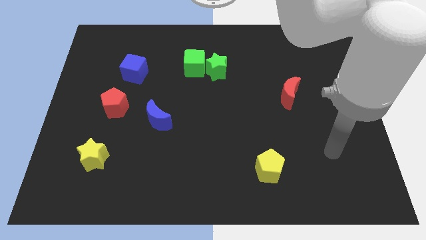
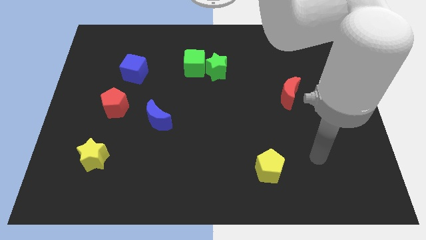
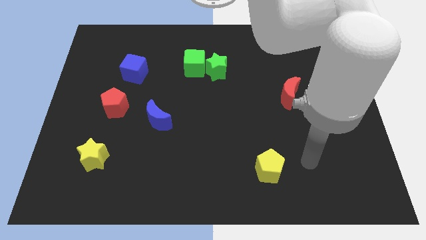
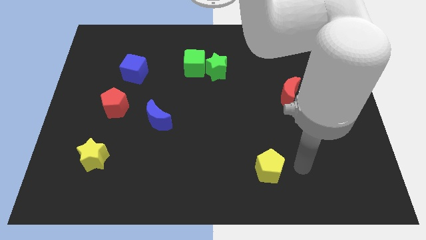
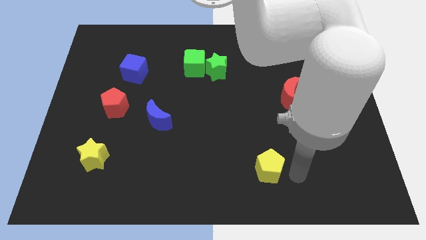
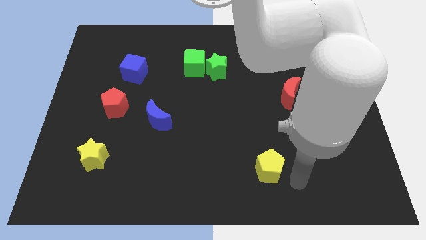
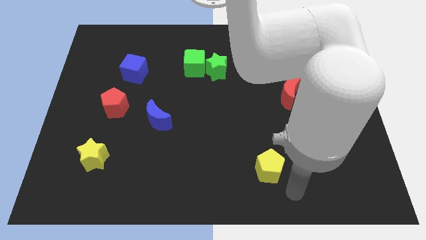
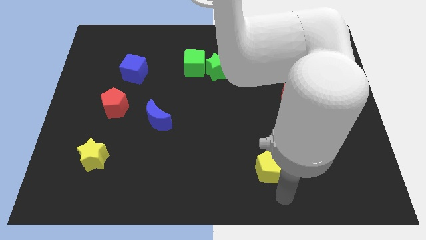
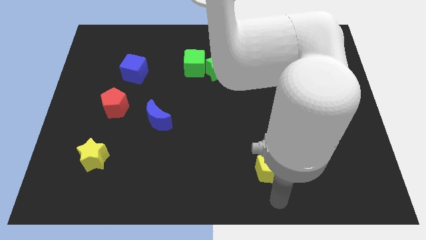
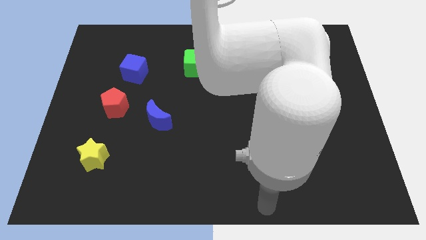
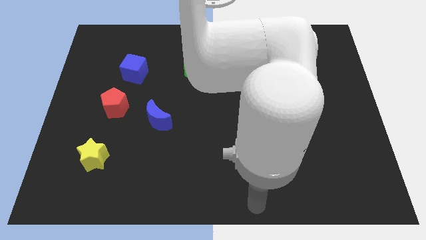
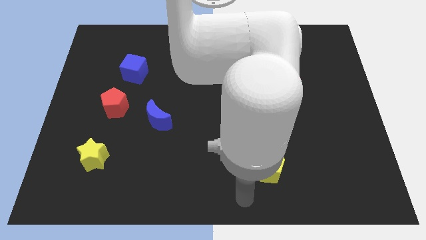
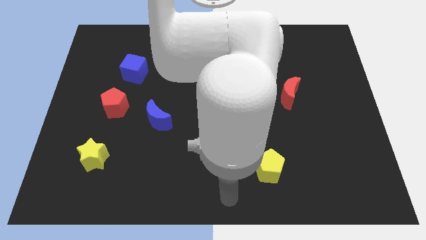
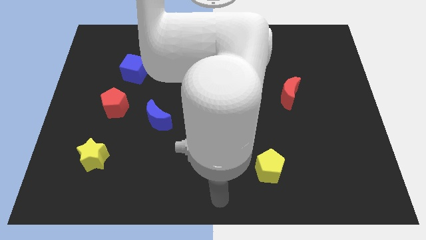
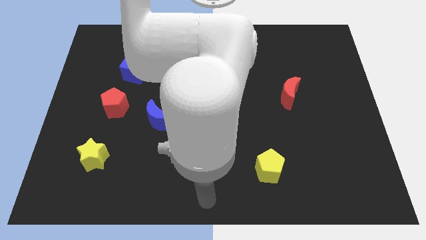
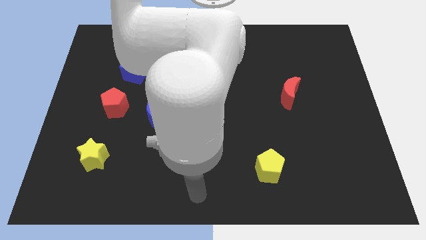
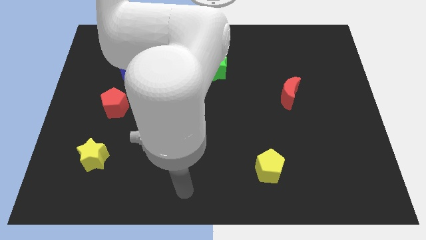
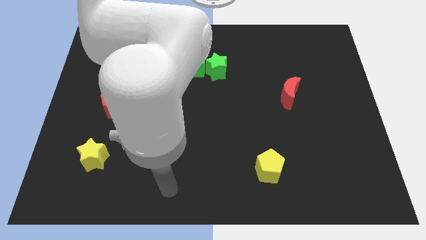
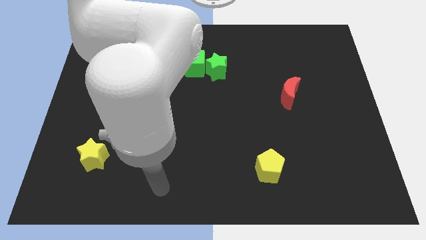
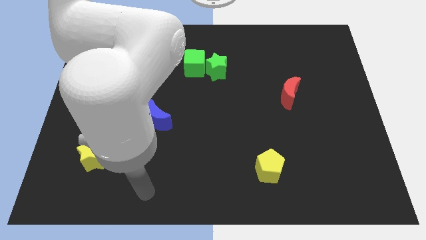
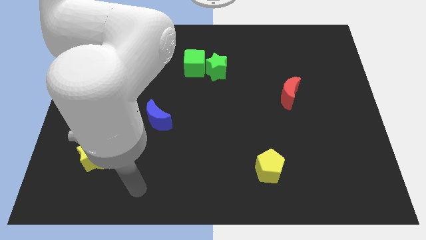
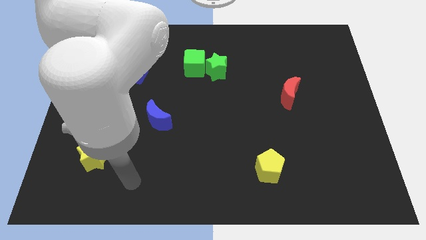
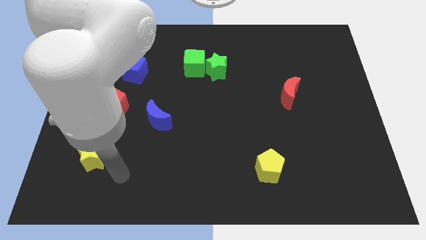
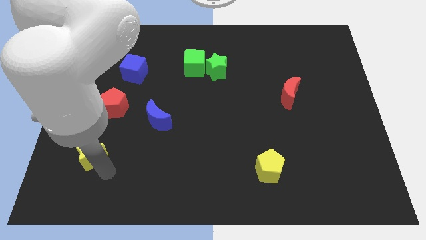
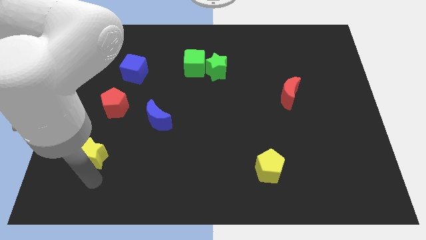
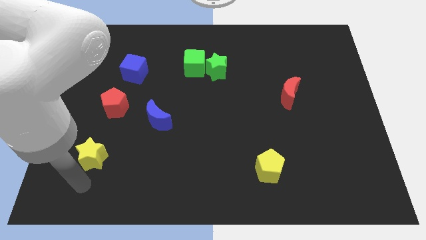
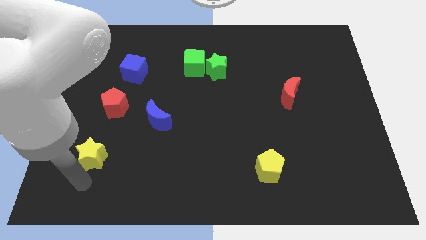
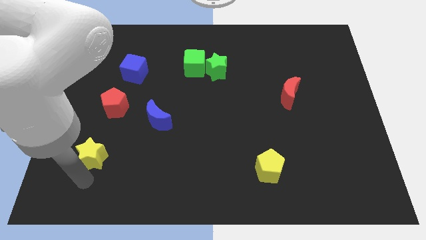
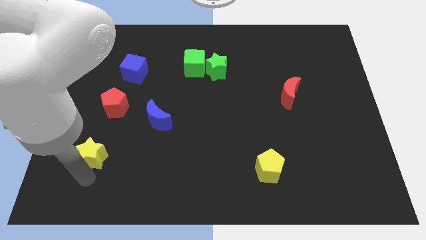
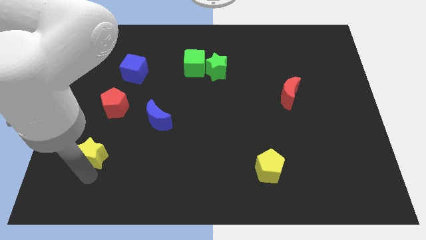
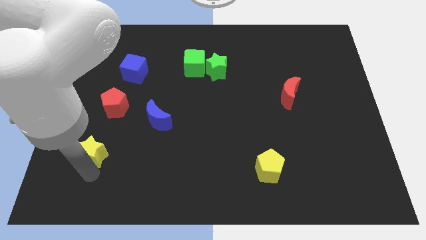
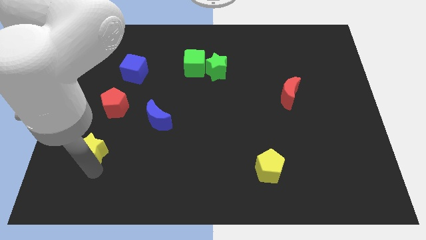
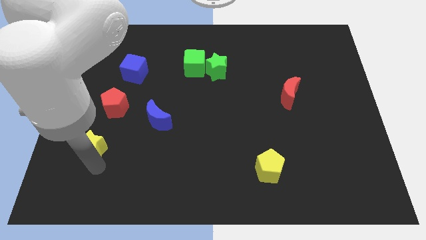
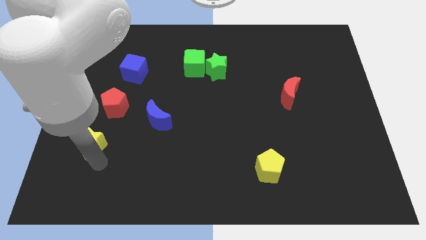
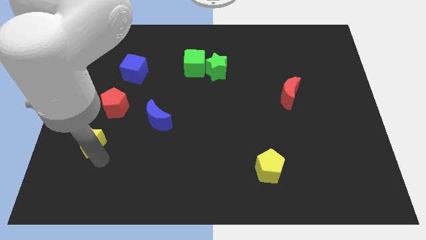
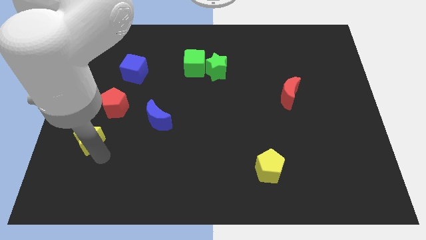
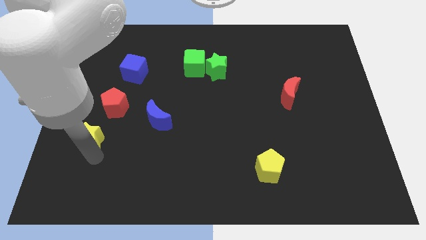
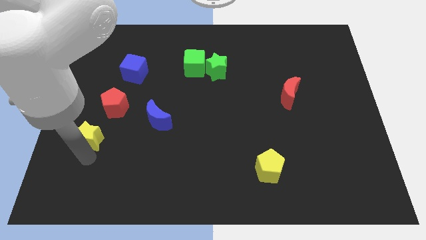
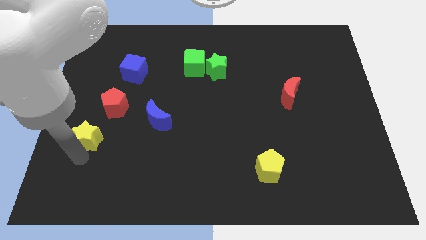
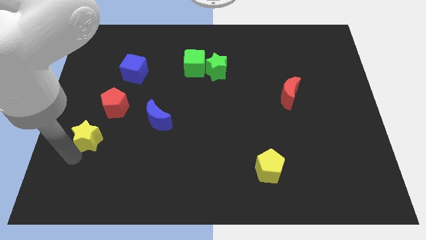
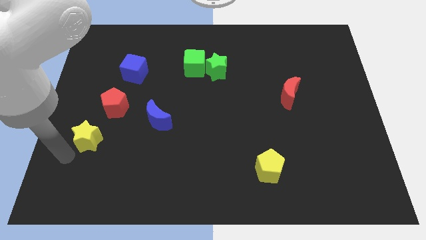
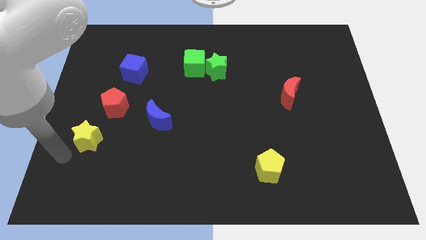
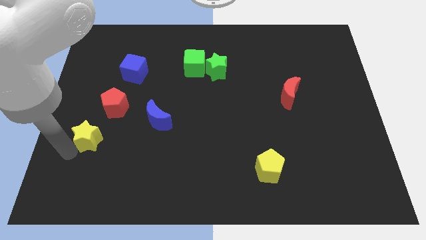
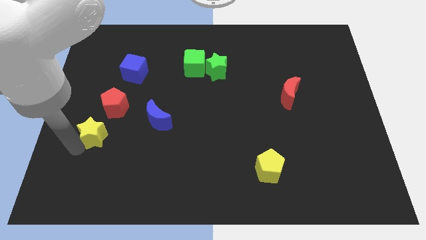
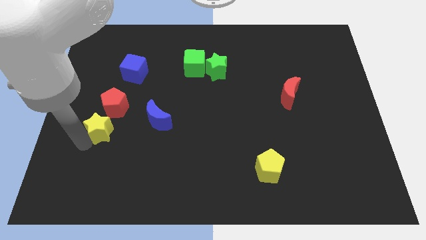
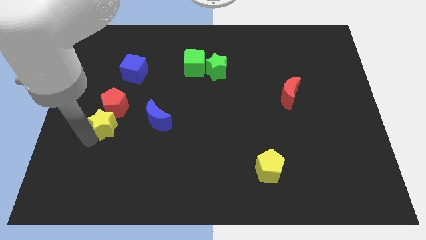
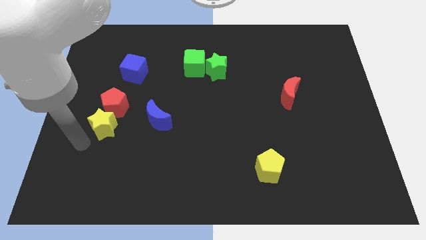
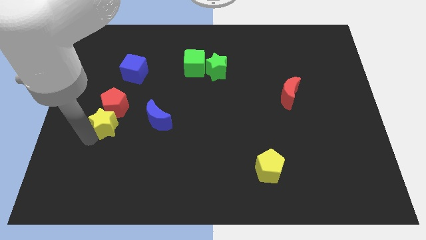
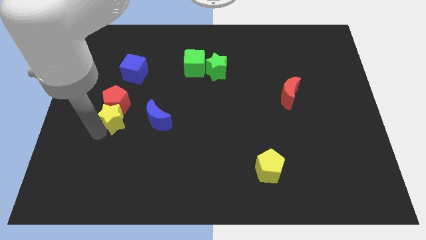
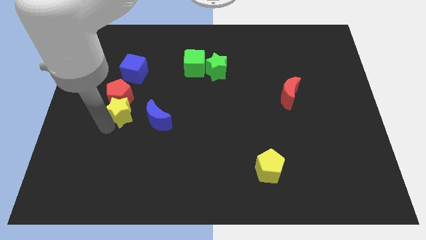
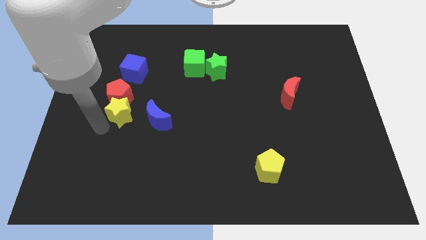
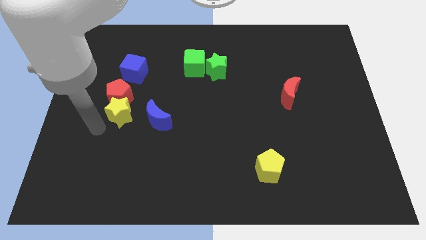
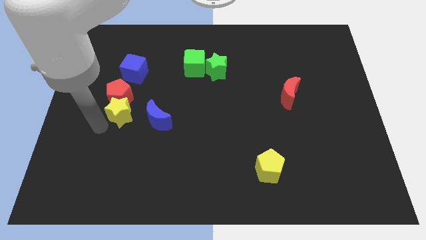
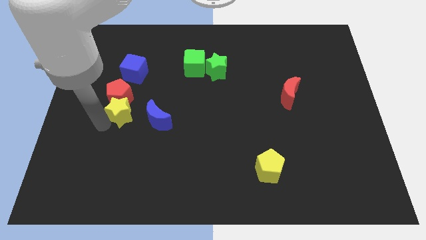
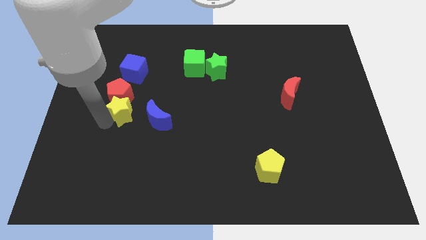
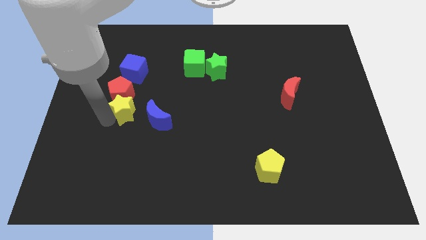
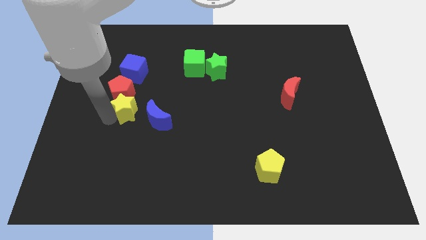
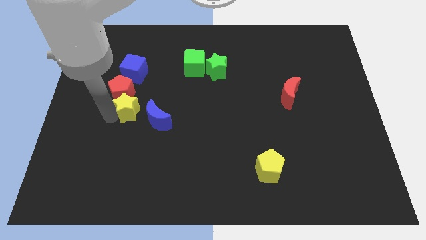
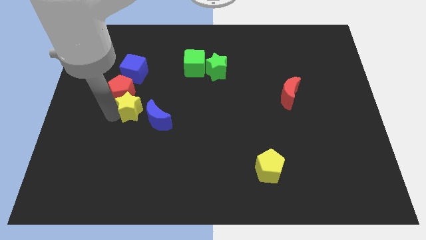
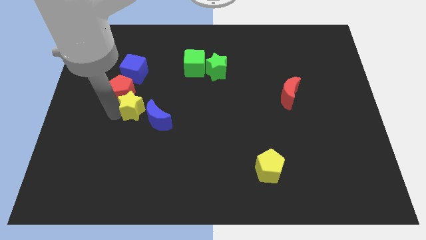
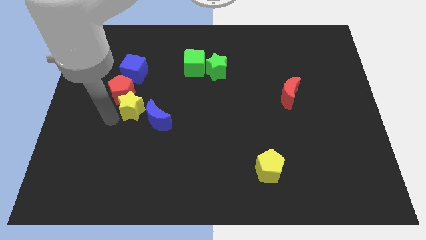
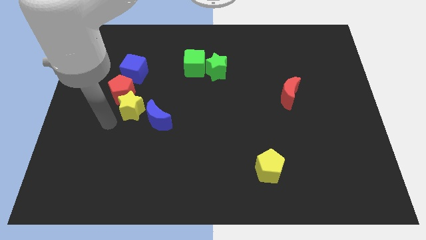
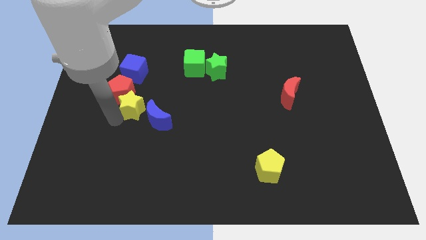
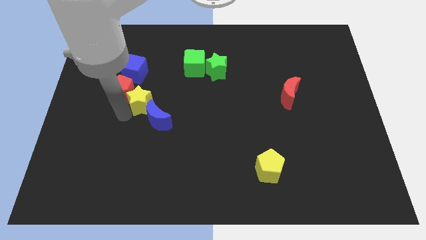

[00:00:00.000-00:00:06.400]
push the yellow star to the right of the red pentagon
